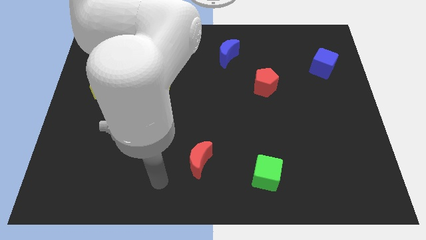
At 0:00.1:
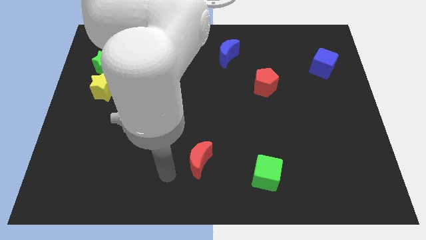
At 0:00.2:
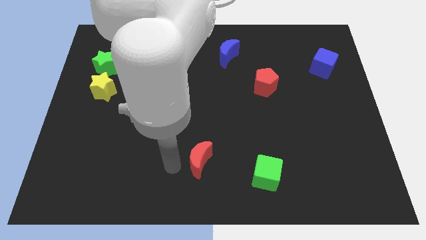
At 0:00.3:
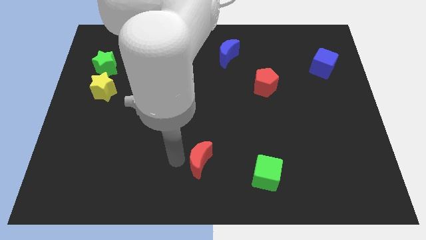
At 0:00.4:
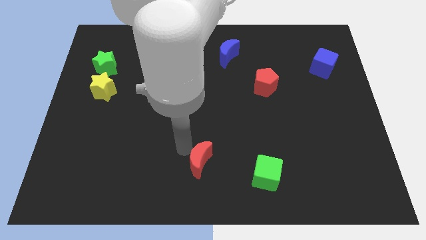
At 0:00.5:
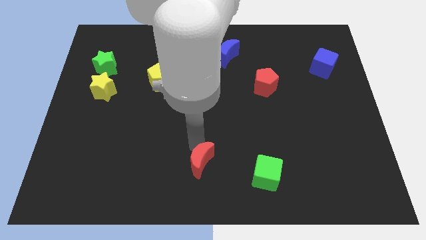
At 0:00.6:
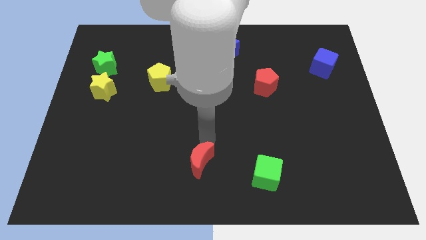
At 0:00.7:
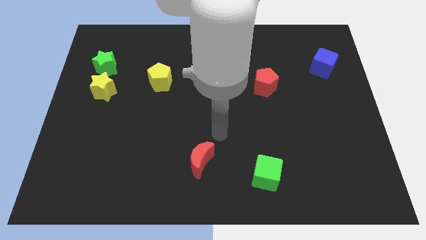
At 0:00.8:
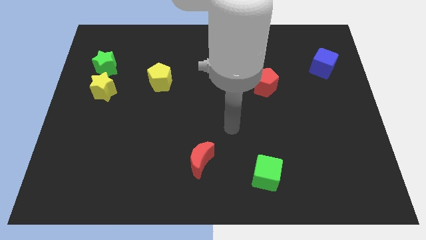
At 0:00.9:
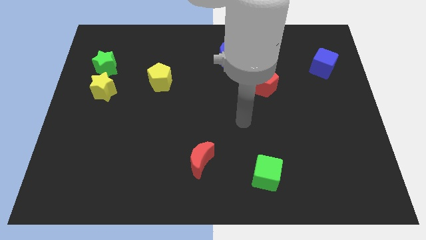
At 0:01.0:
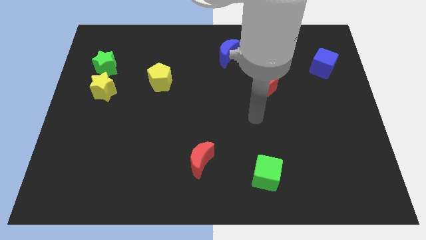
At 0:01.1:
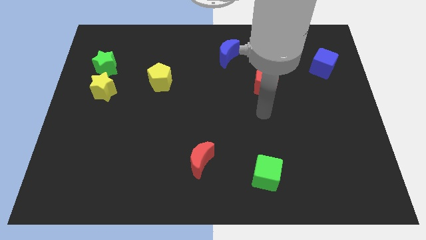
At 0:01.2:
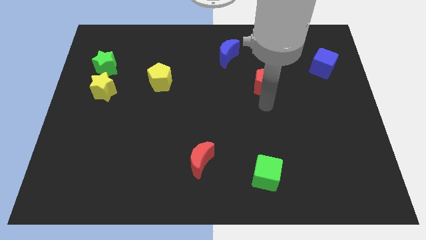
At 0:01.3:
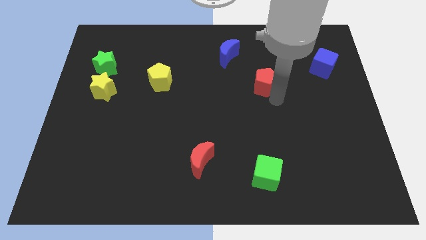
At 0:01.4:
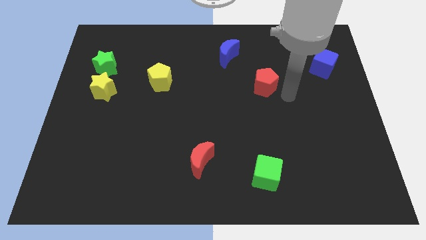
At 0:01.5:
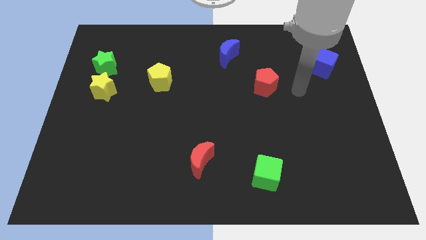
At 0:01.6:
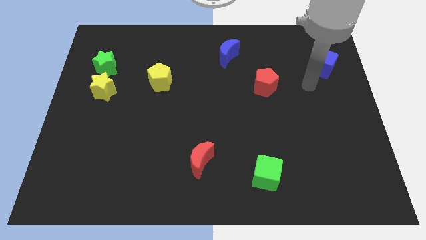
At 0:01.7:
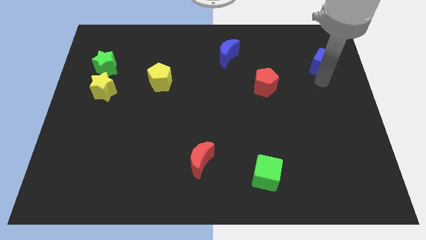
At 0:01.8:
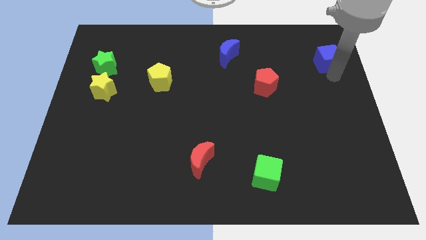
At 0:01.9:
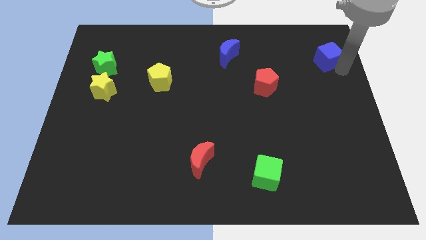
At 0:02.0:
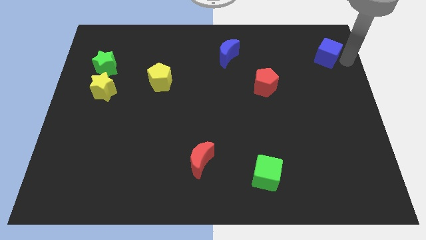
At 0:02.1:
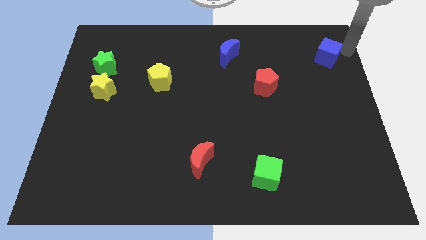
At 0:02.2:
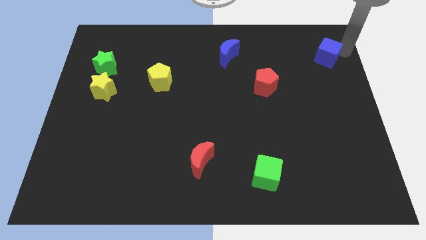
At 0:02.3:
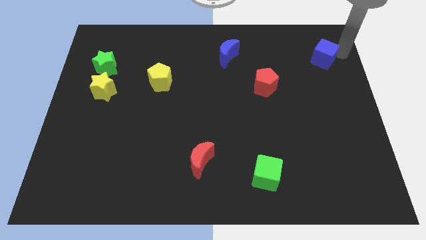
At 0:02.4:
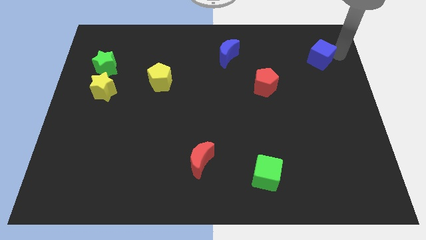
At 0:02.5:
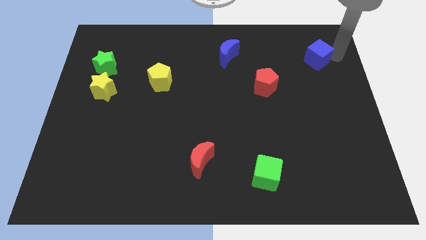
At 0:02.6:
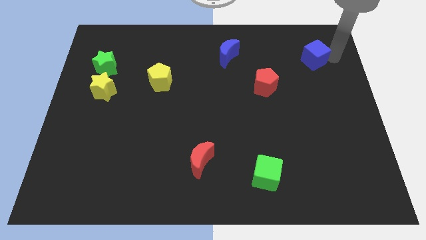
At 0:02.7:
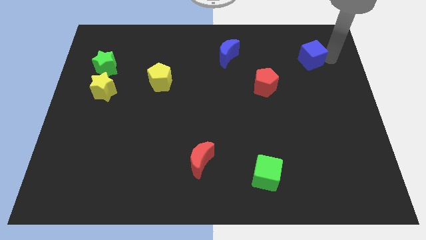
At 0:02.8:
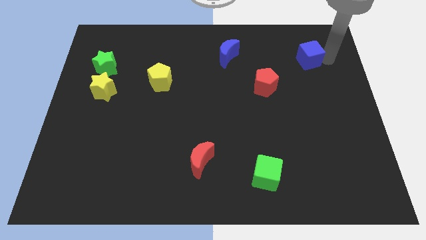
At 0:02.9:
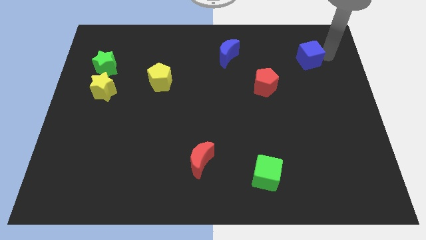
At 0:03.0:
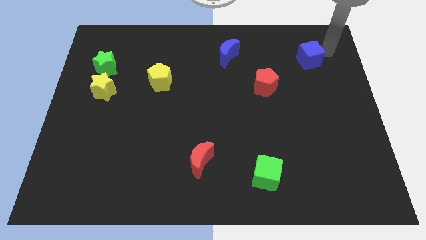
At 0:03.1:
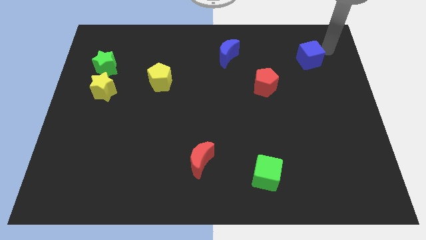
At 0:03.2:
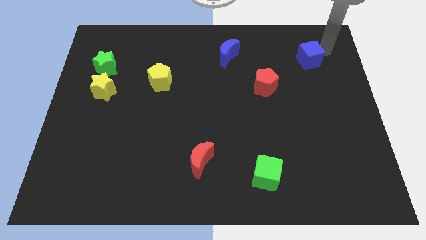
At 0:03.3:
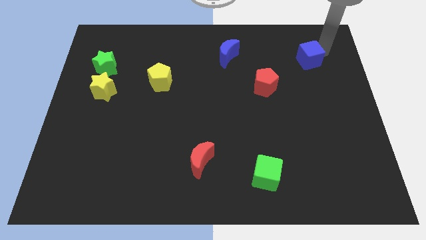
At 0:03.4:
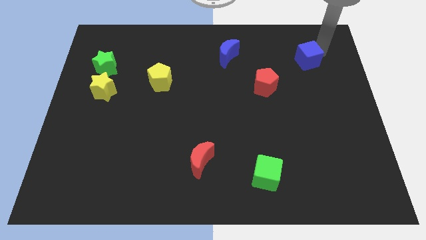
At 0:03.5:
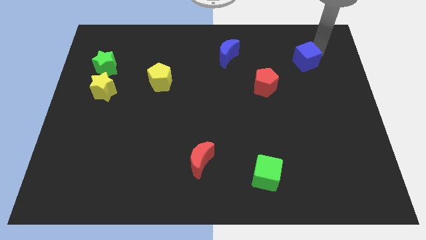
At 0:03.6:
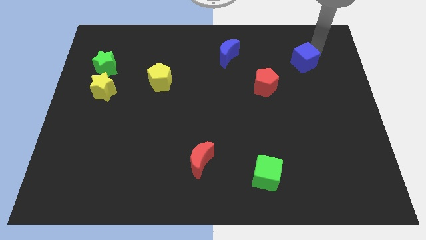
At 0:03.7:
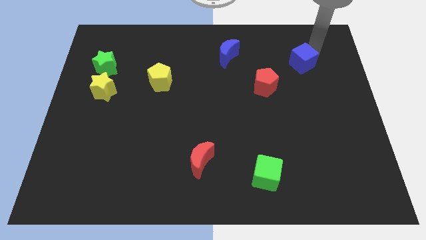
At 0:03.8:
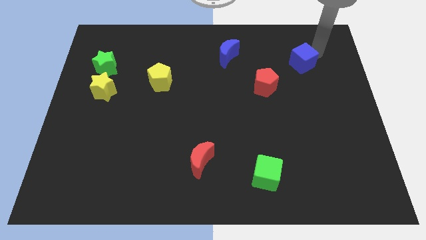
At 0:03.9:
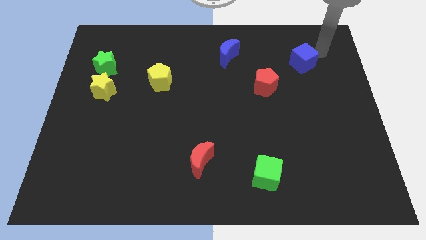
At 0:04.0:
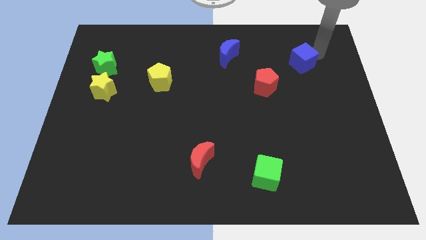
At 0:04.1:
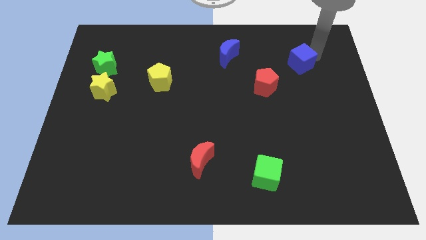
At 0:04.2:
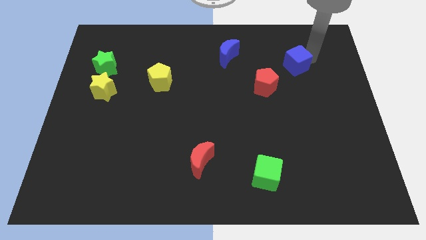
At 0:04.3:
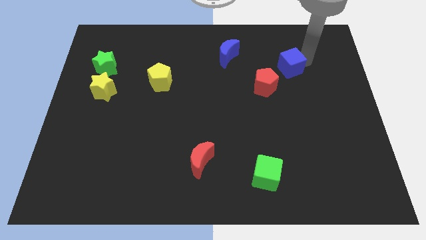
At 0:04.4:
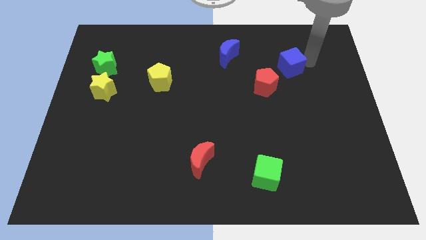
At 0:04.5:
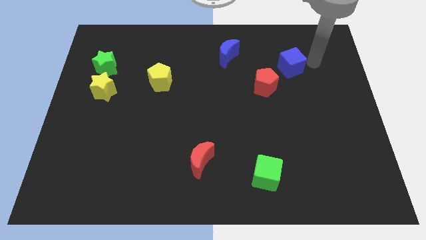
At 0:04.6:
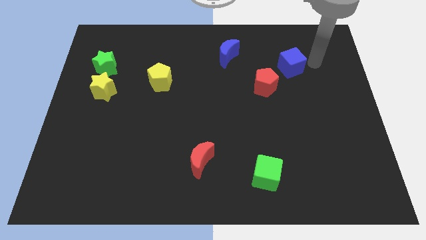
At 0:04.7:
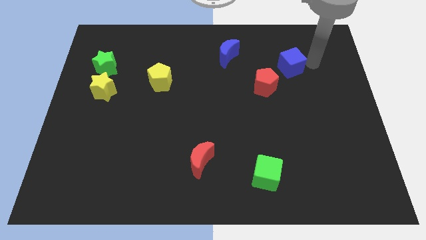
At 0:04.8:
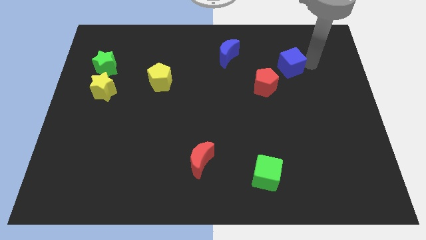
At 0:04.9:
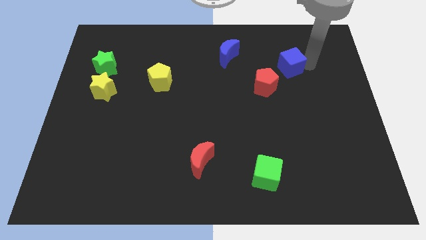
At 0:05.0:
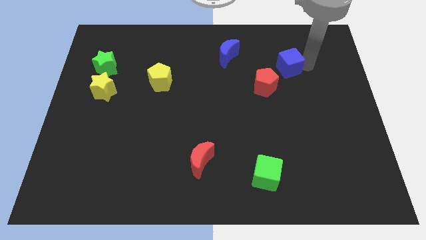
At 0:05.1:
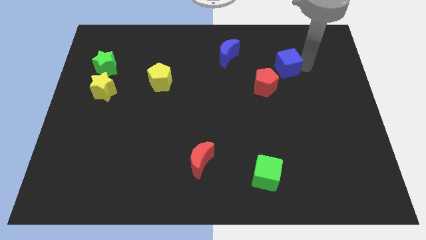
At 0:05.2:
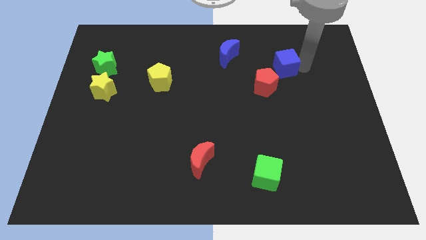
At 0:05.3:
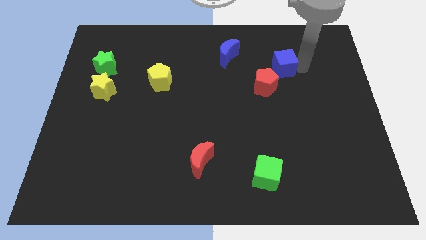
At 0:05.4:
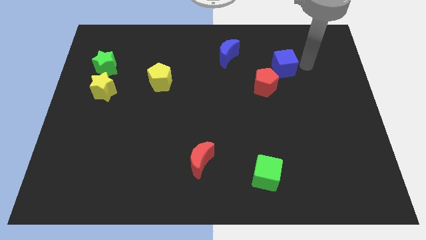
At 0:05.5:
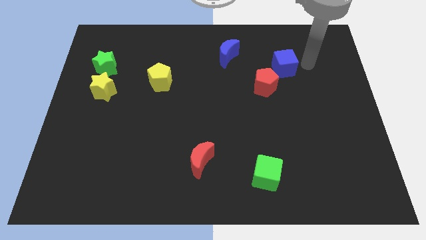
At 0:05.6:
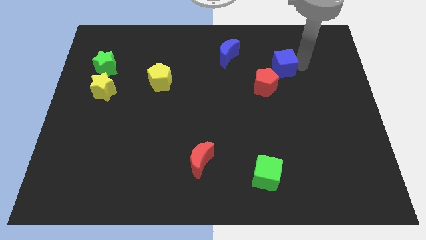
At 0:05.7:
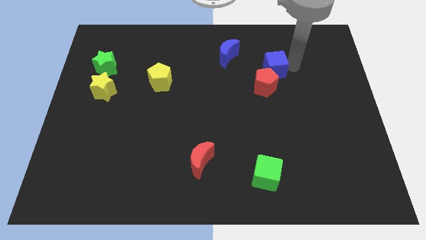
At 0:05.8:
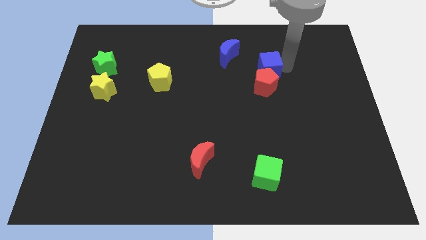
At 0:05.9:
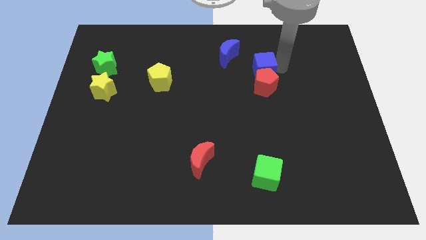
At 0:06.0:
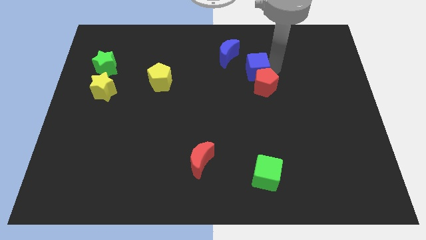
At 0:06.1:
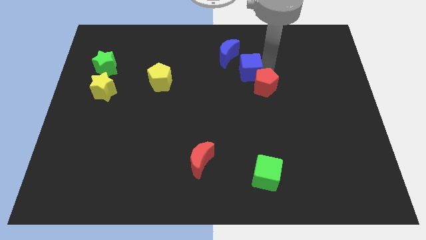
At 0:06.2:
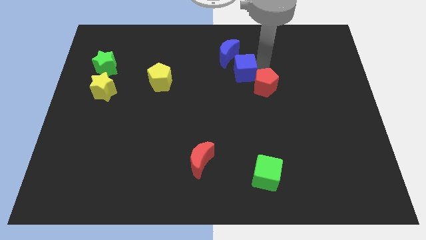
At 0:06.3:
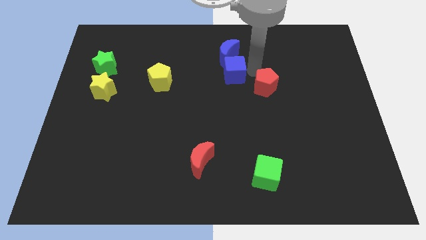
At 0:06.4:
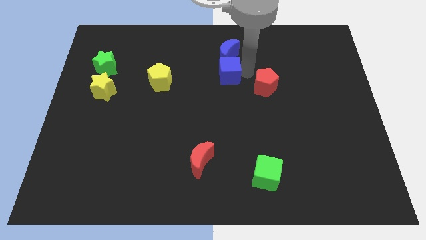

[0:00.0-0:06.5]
move the blue cube to the bottom left of the blue moon
